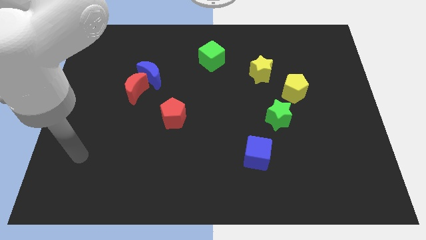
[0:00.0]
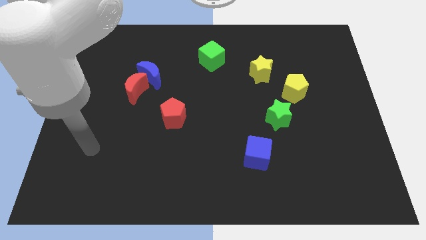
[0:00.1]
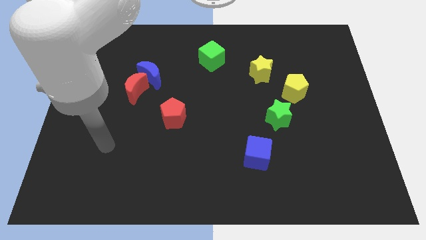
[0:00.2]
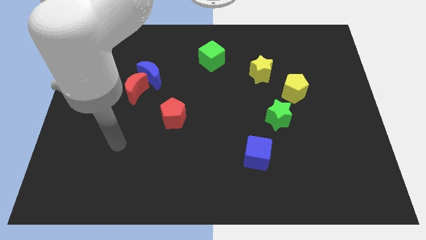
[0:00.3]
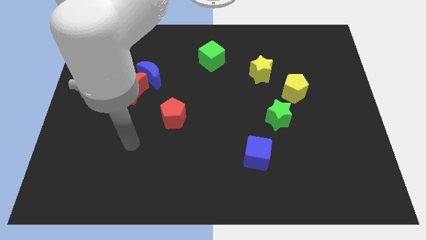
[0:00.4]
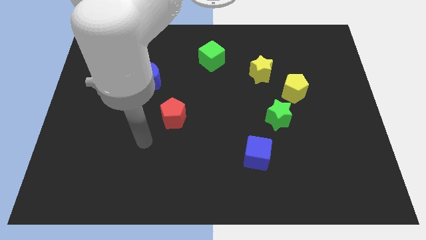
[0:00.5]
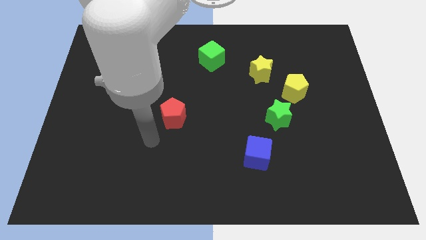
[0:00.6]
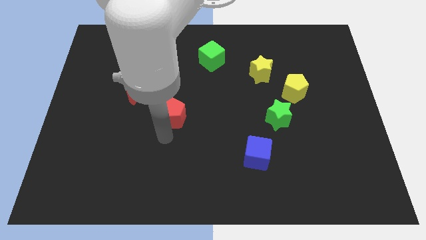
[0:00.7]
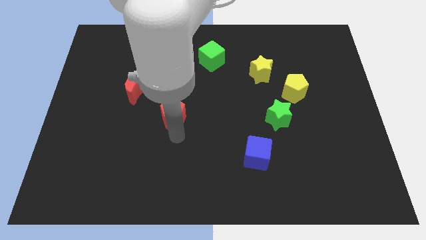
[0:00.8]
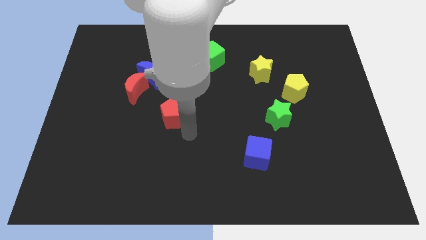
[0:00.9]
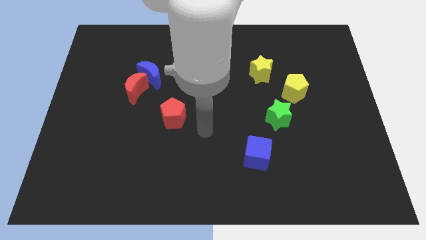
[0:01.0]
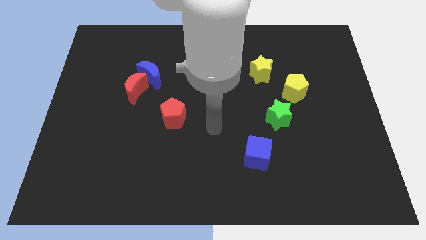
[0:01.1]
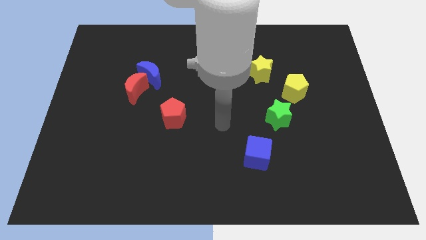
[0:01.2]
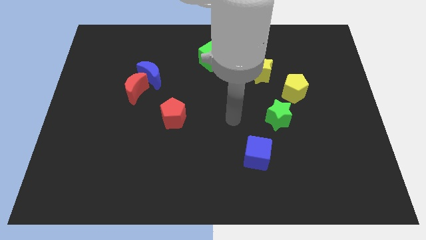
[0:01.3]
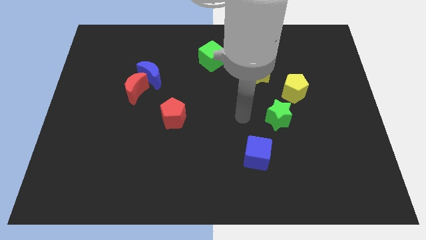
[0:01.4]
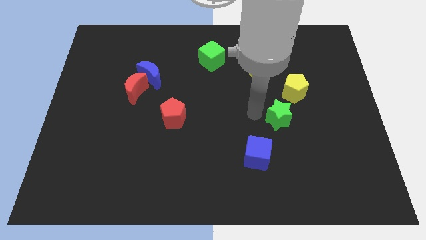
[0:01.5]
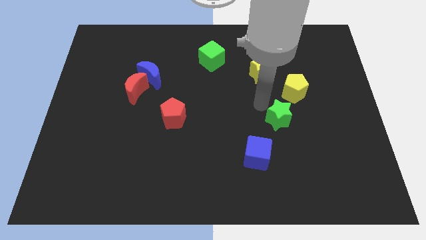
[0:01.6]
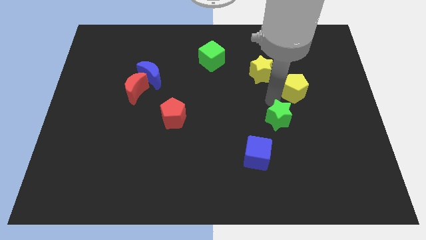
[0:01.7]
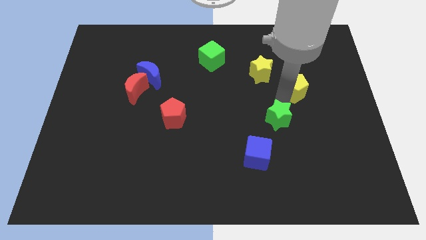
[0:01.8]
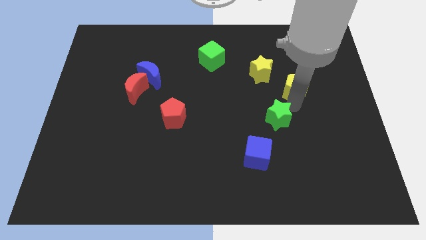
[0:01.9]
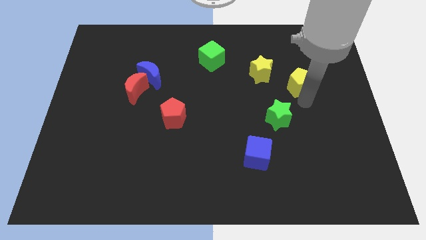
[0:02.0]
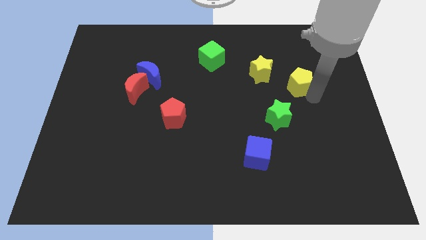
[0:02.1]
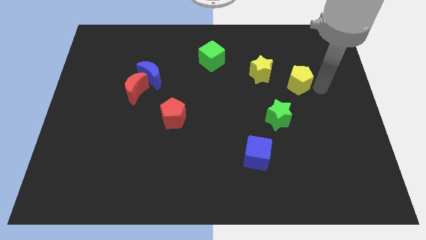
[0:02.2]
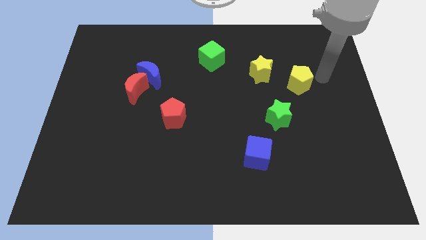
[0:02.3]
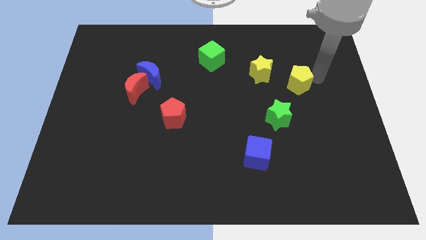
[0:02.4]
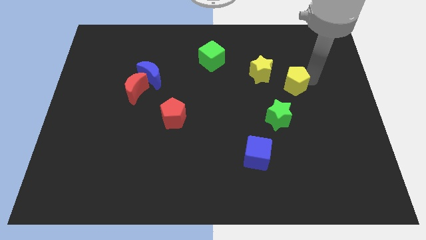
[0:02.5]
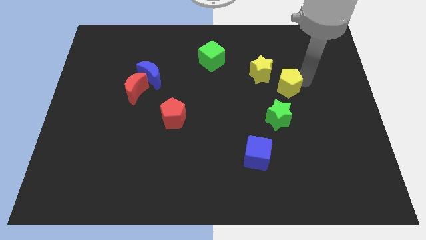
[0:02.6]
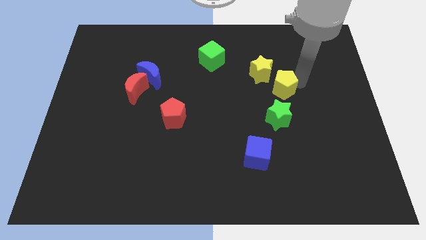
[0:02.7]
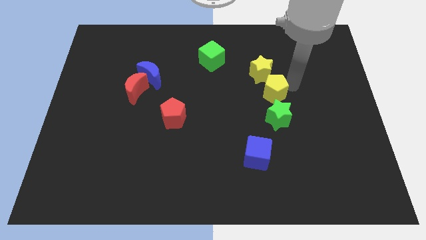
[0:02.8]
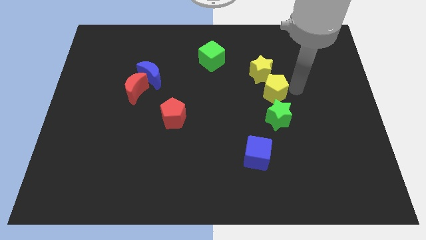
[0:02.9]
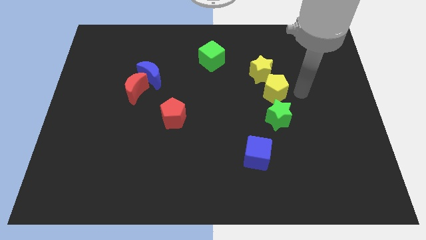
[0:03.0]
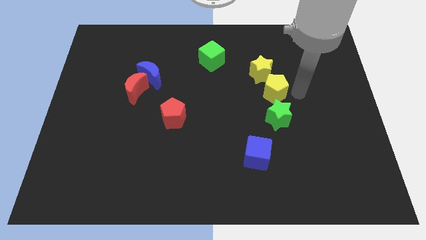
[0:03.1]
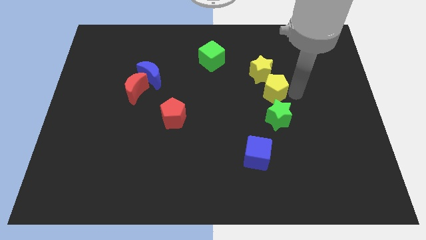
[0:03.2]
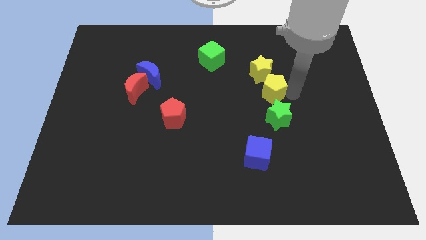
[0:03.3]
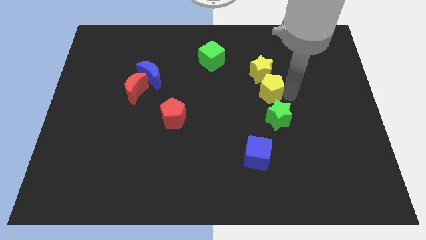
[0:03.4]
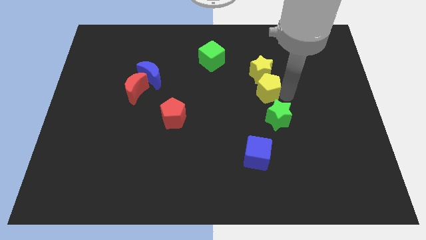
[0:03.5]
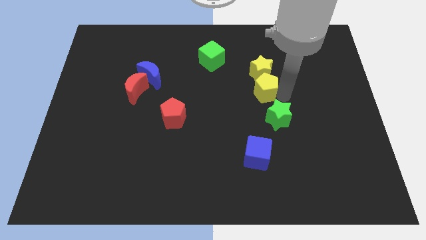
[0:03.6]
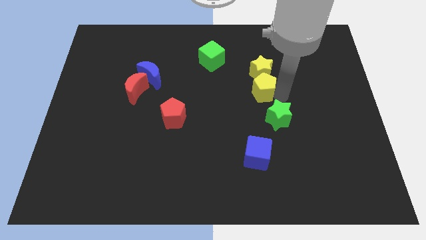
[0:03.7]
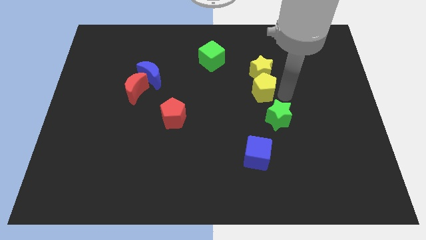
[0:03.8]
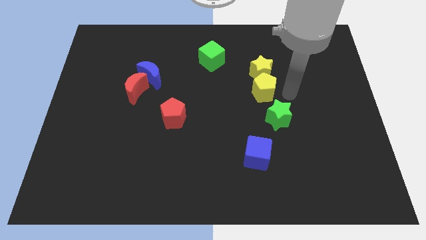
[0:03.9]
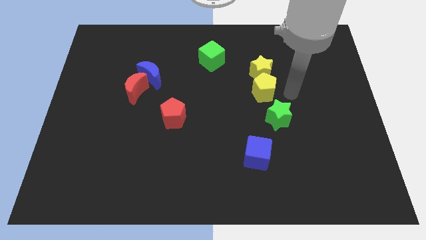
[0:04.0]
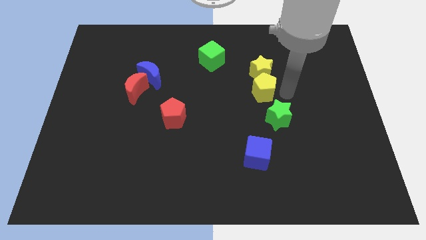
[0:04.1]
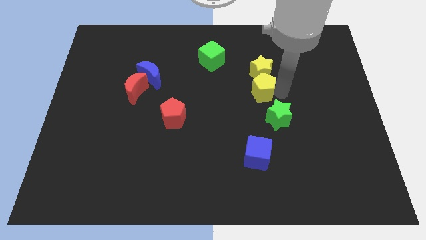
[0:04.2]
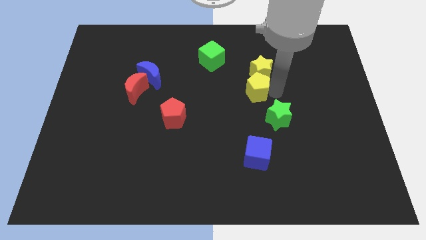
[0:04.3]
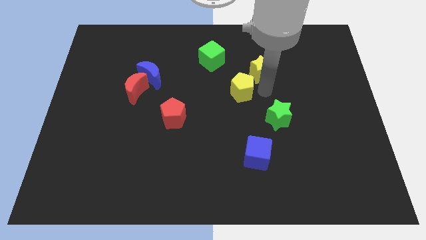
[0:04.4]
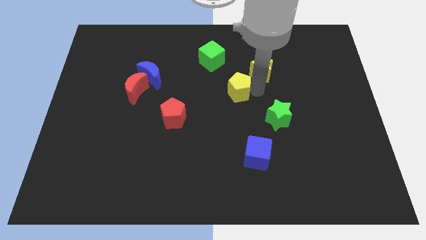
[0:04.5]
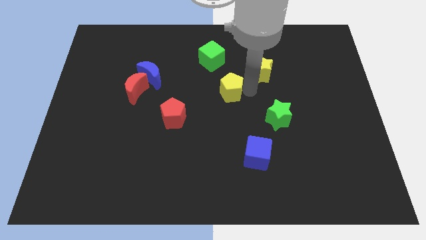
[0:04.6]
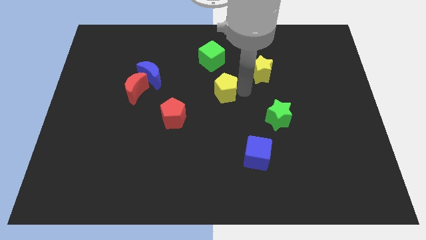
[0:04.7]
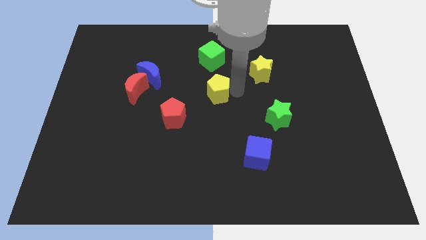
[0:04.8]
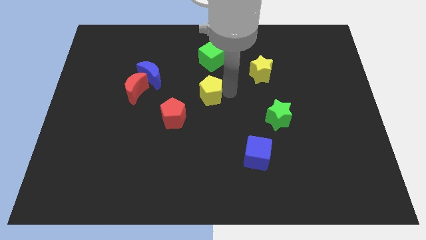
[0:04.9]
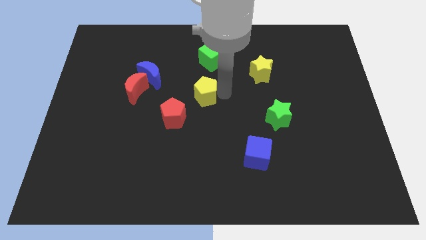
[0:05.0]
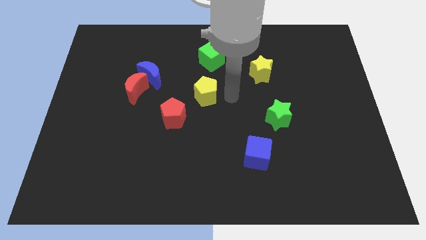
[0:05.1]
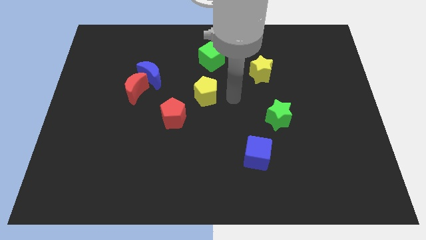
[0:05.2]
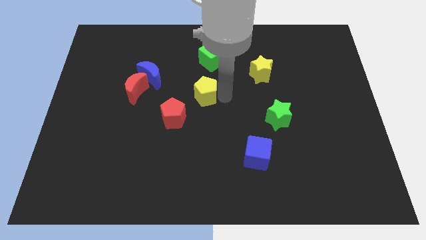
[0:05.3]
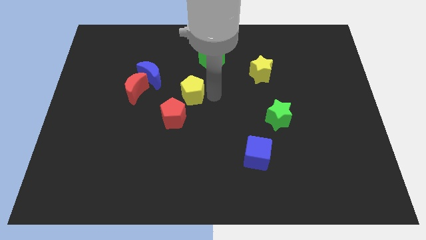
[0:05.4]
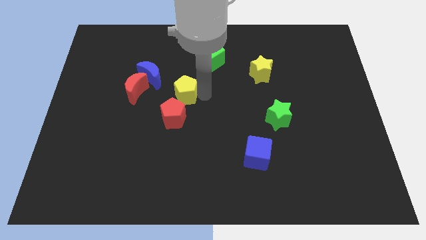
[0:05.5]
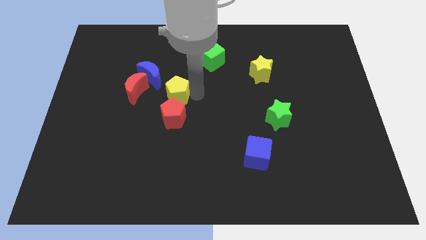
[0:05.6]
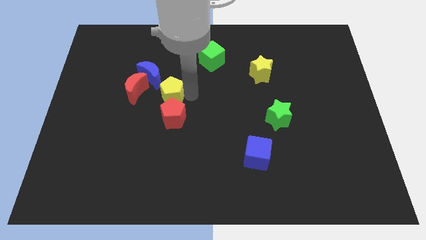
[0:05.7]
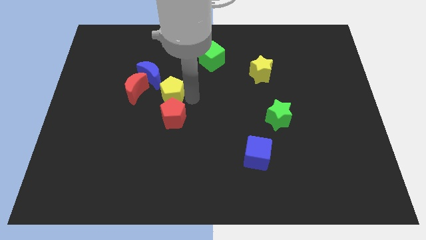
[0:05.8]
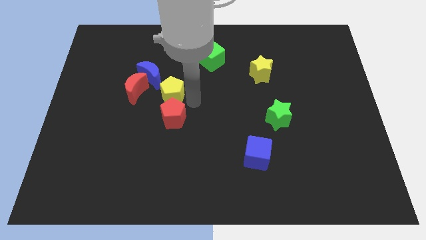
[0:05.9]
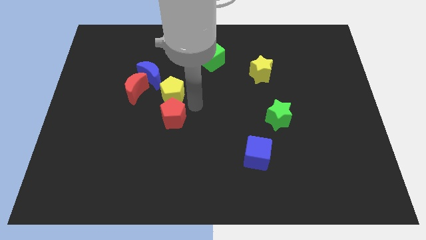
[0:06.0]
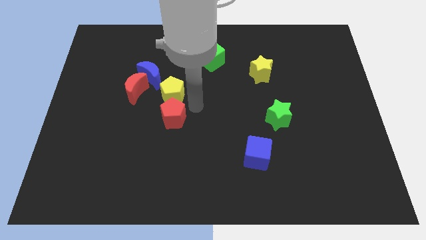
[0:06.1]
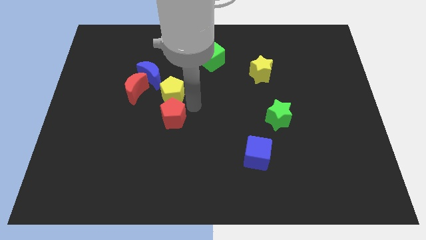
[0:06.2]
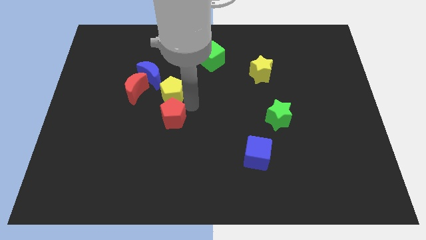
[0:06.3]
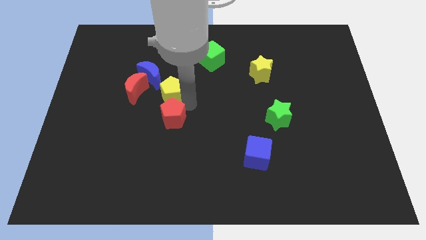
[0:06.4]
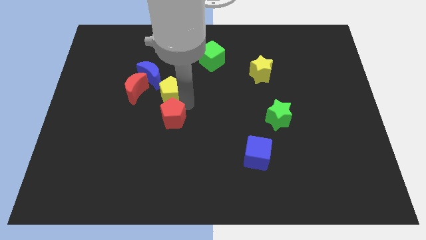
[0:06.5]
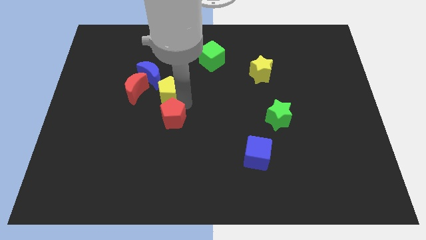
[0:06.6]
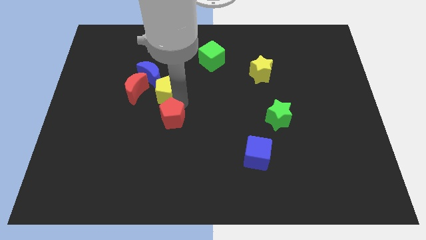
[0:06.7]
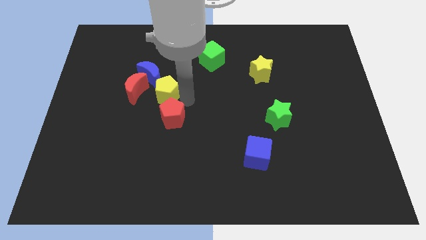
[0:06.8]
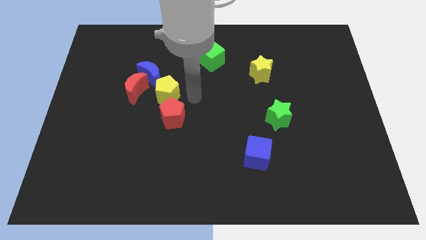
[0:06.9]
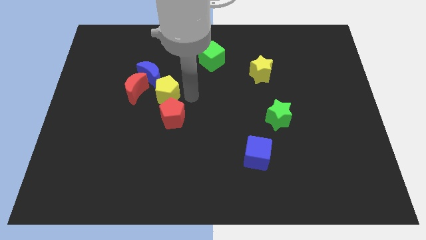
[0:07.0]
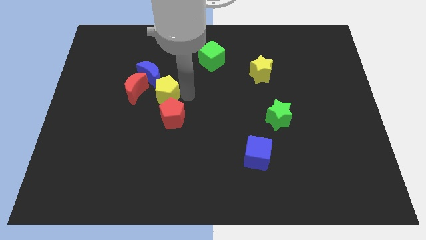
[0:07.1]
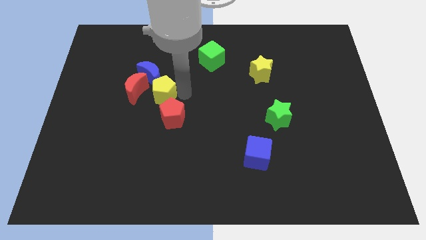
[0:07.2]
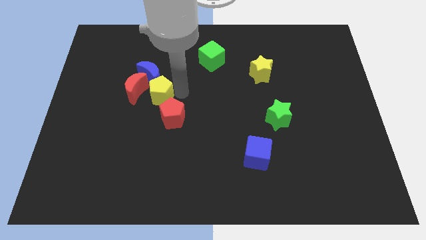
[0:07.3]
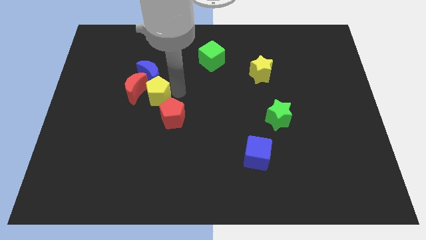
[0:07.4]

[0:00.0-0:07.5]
put the yellow pentagon next to the red moon
